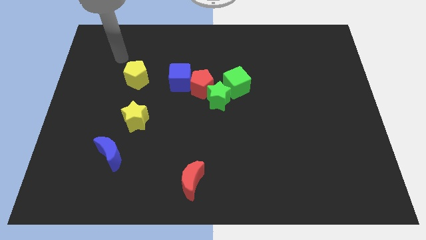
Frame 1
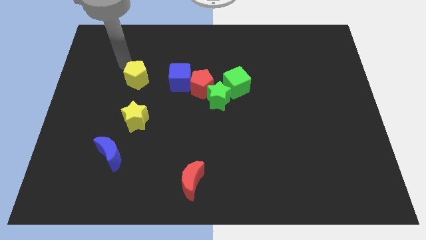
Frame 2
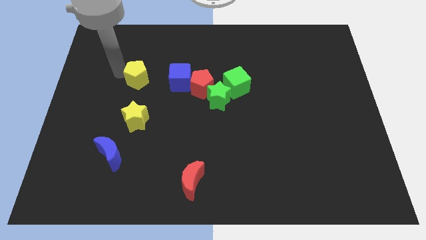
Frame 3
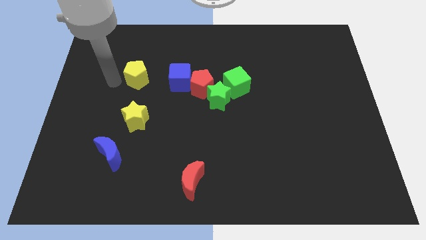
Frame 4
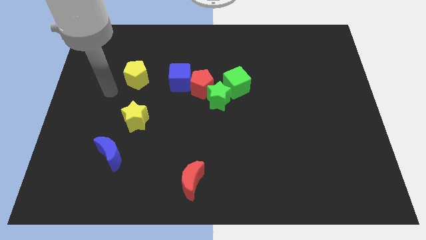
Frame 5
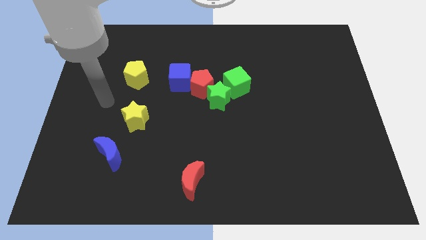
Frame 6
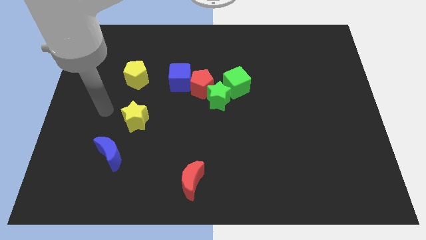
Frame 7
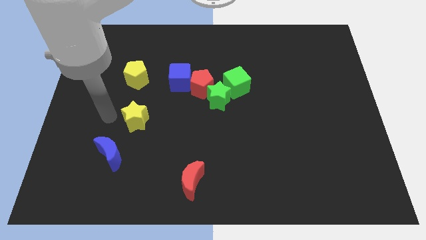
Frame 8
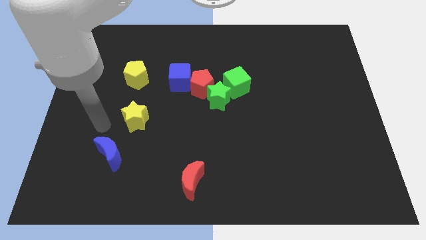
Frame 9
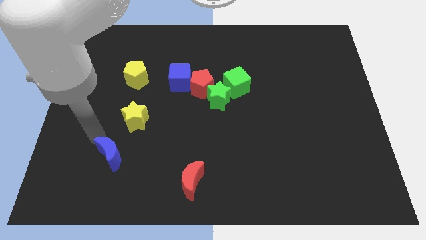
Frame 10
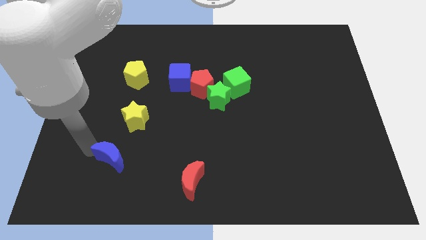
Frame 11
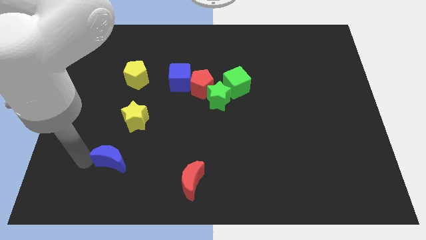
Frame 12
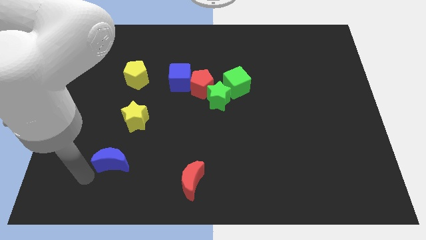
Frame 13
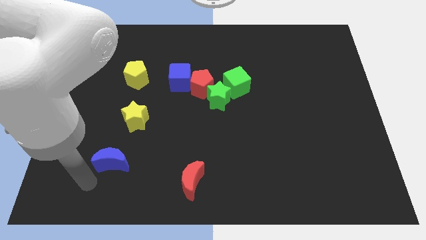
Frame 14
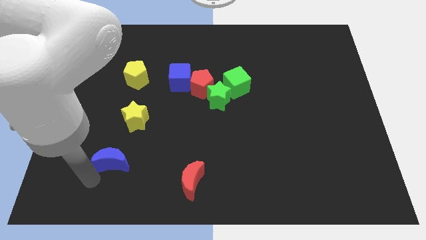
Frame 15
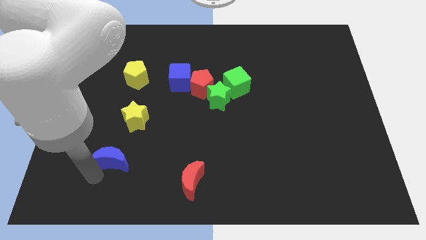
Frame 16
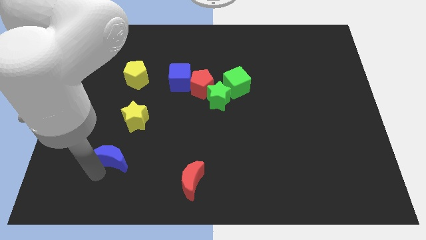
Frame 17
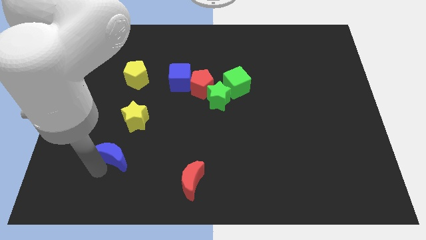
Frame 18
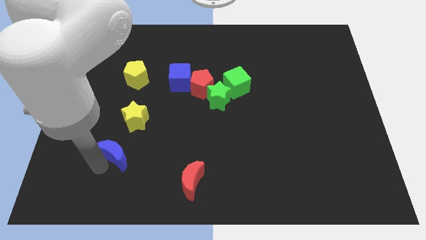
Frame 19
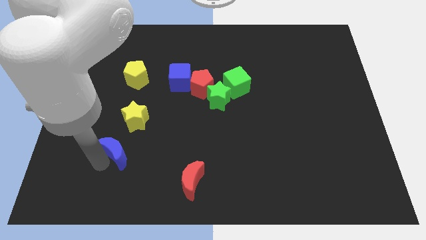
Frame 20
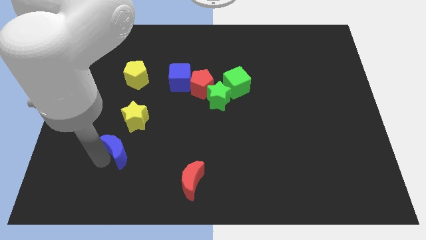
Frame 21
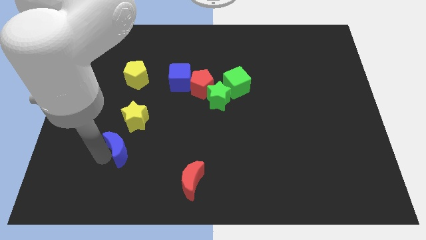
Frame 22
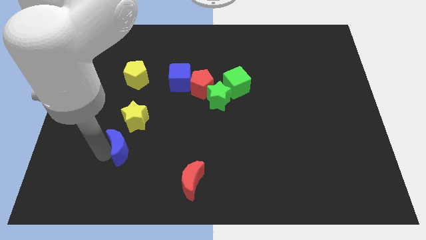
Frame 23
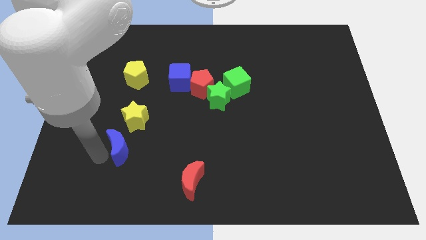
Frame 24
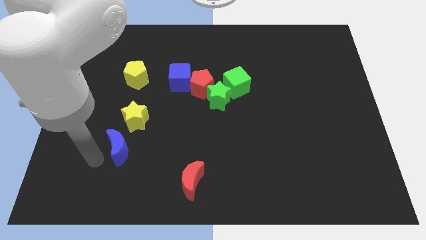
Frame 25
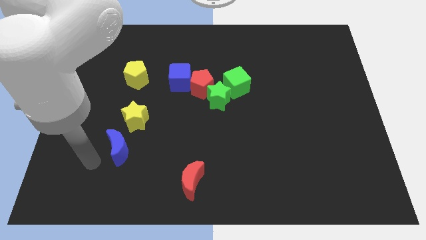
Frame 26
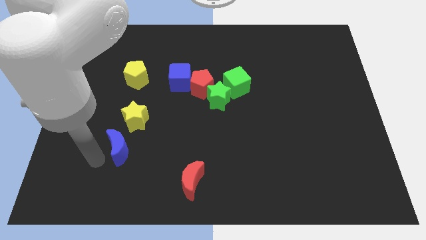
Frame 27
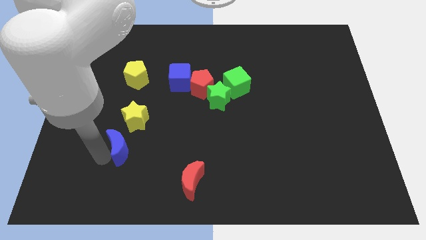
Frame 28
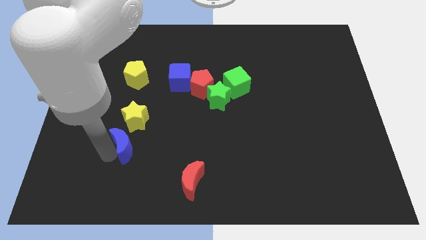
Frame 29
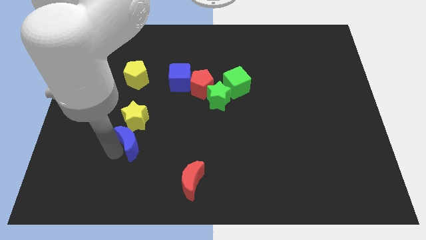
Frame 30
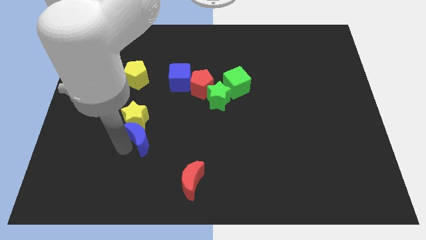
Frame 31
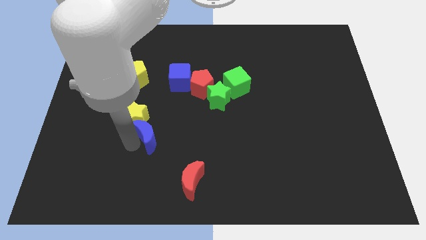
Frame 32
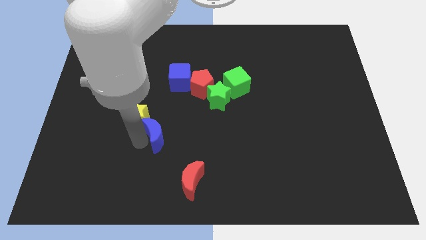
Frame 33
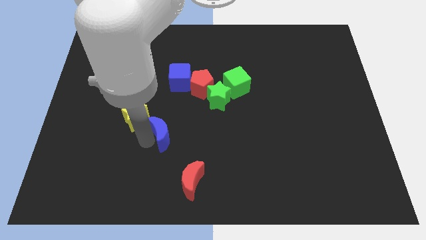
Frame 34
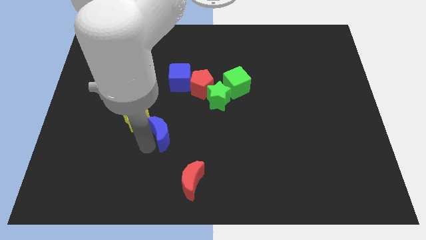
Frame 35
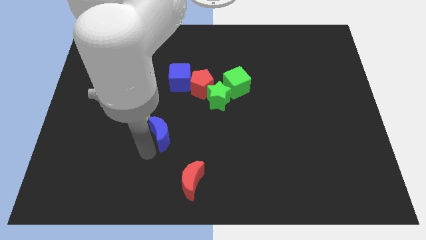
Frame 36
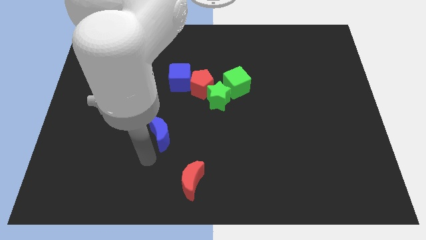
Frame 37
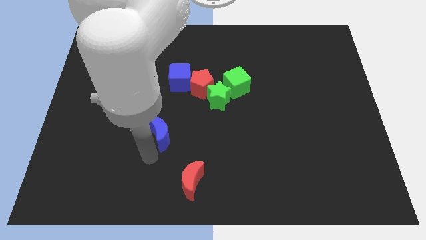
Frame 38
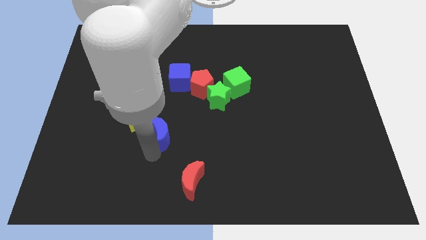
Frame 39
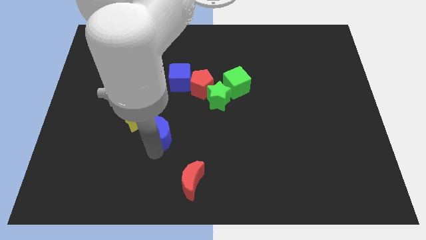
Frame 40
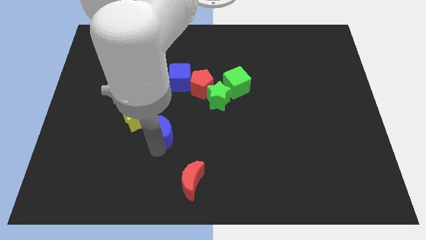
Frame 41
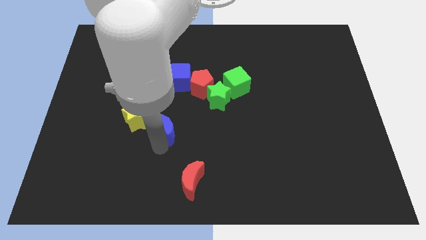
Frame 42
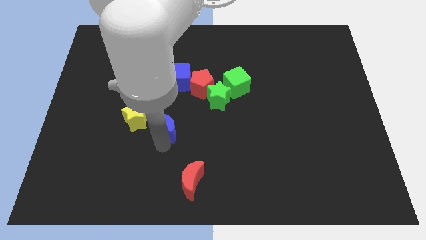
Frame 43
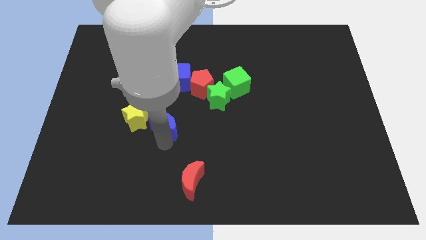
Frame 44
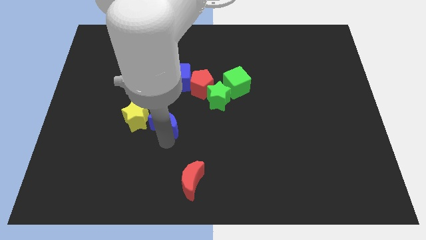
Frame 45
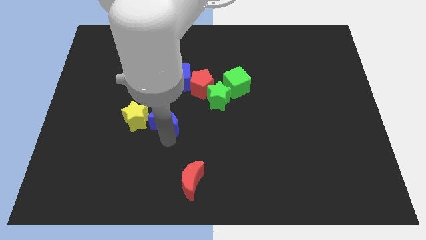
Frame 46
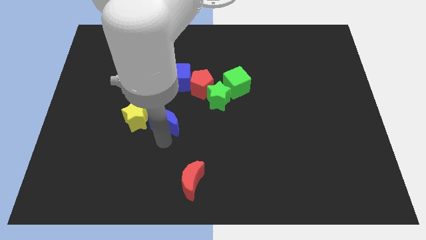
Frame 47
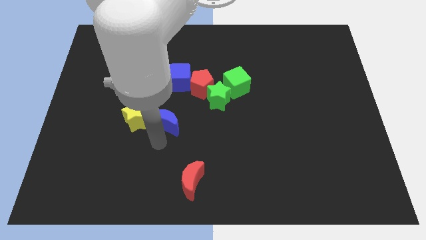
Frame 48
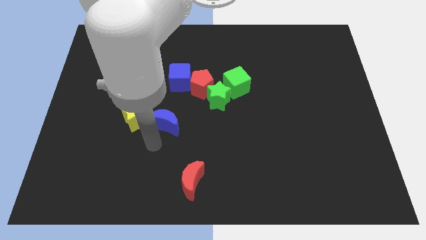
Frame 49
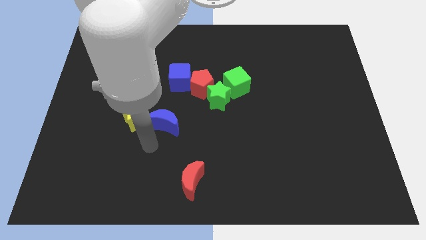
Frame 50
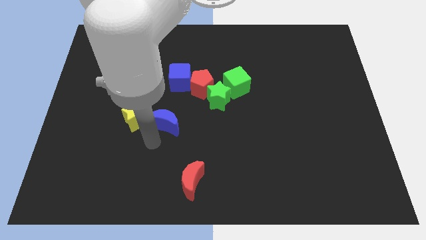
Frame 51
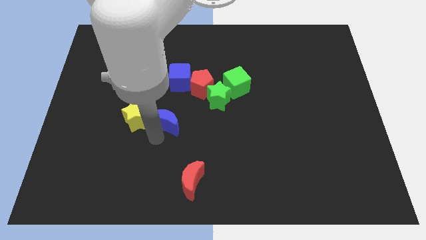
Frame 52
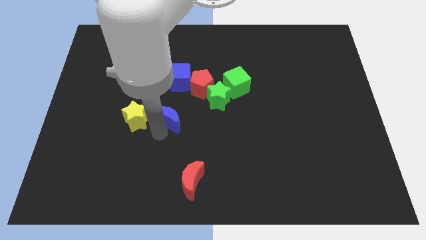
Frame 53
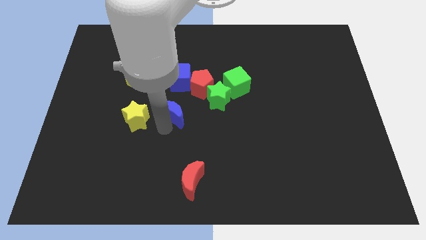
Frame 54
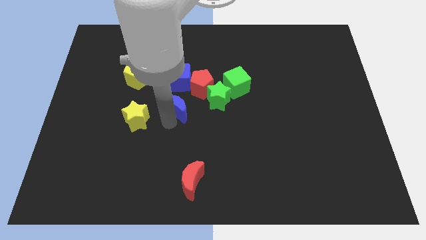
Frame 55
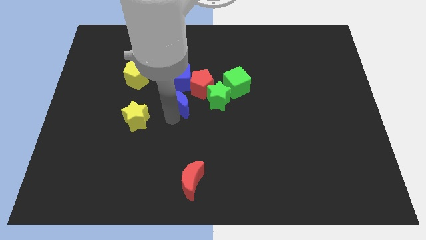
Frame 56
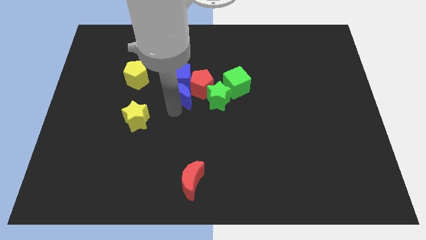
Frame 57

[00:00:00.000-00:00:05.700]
push the blue moon next to the red pentagon

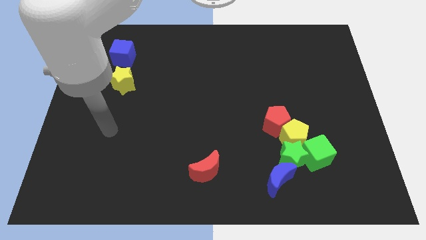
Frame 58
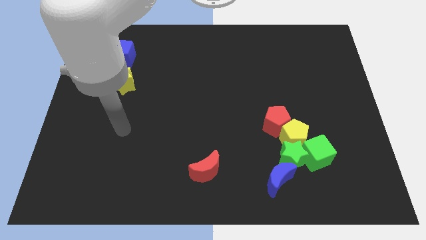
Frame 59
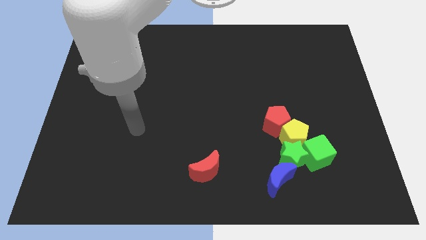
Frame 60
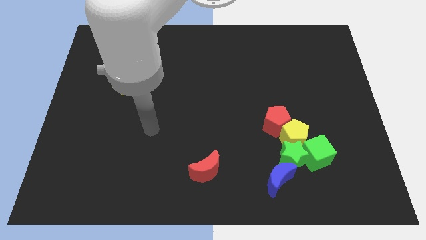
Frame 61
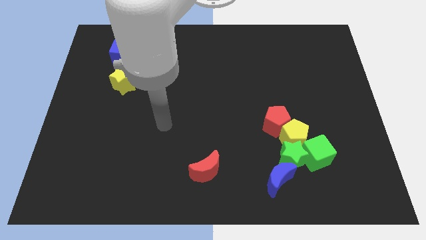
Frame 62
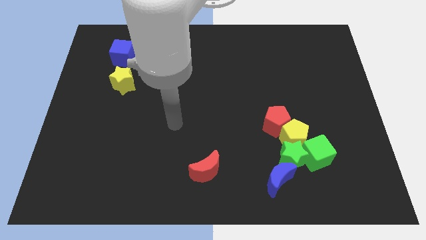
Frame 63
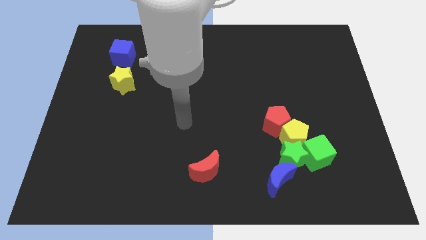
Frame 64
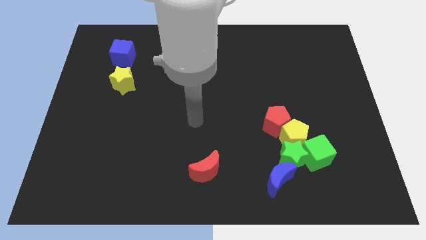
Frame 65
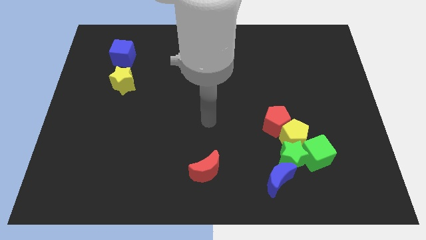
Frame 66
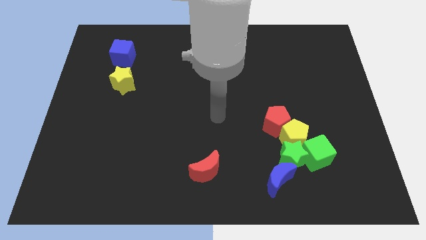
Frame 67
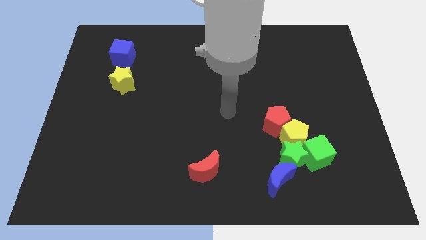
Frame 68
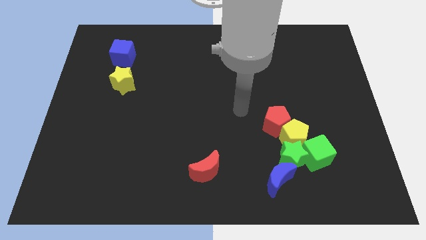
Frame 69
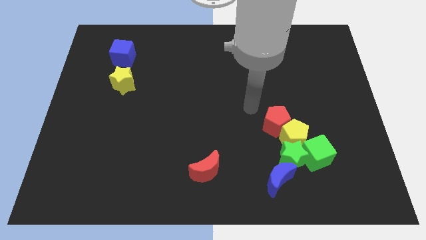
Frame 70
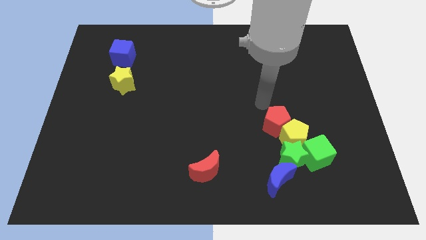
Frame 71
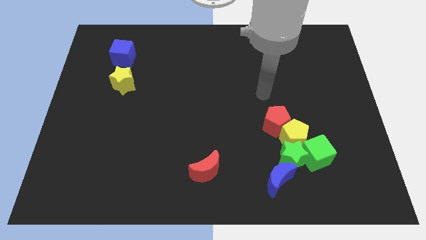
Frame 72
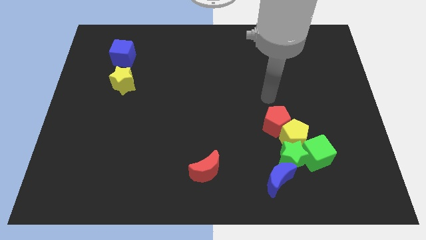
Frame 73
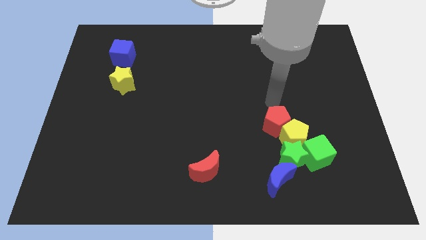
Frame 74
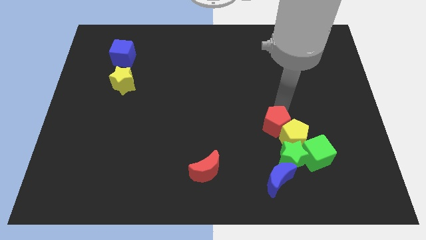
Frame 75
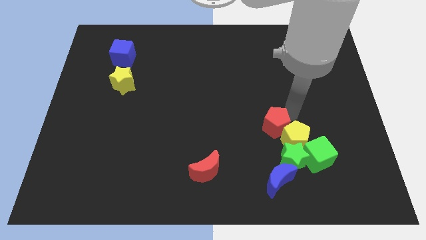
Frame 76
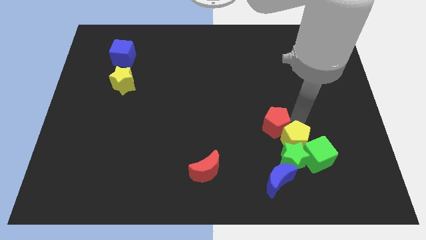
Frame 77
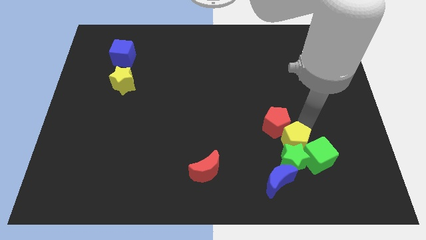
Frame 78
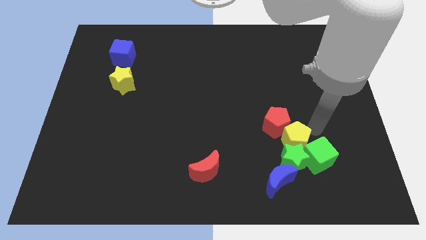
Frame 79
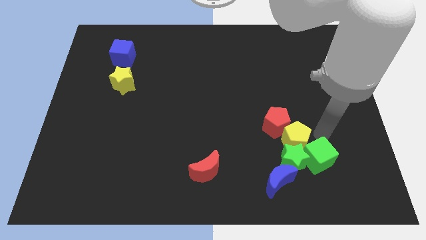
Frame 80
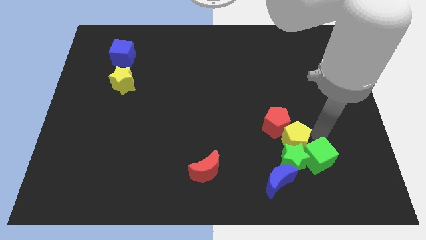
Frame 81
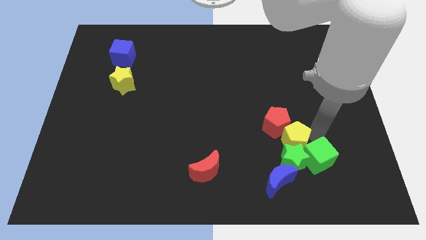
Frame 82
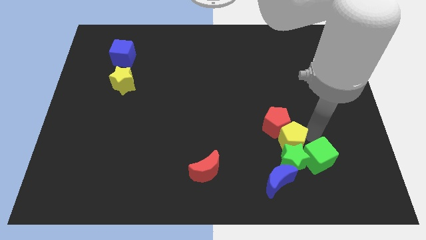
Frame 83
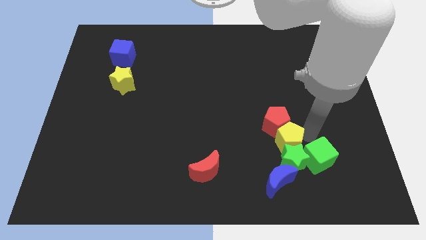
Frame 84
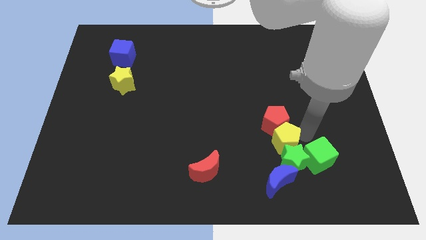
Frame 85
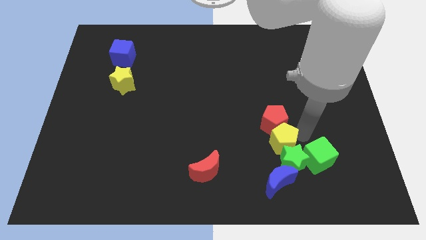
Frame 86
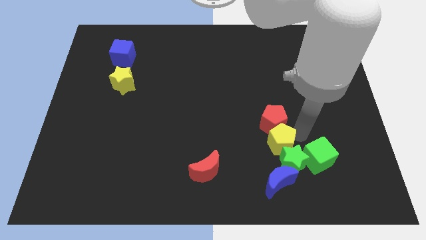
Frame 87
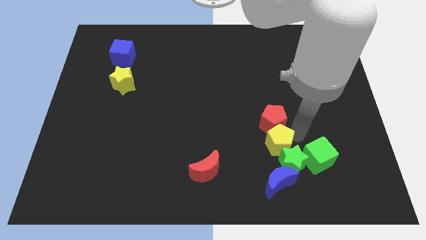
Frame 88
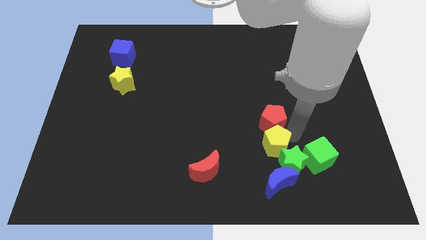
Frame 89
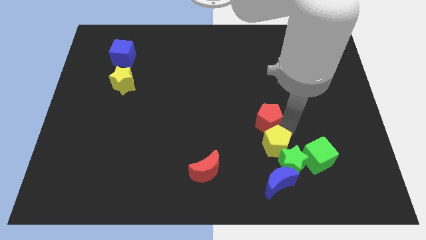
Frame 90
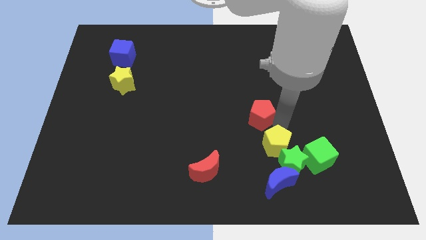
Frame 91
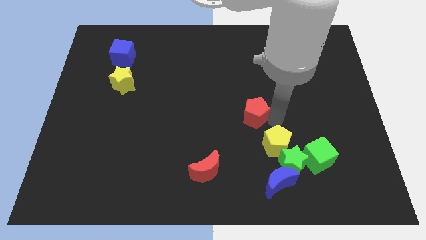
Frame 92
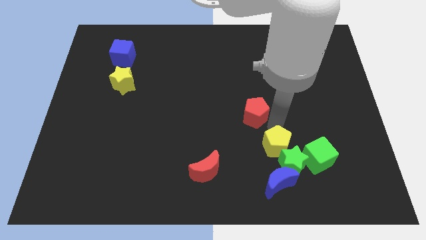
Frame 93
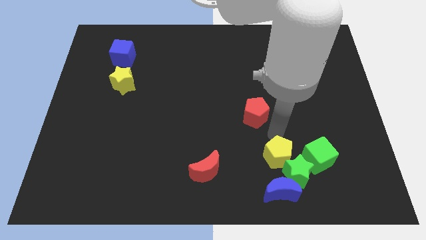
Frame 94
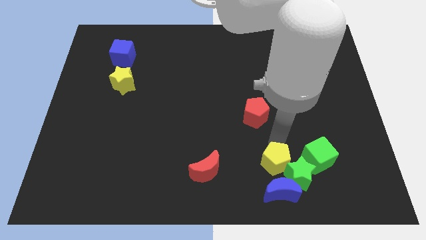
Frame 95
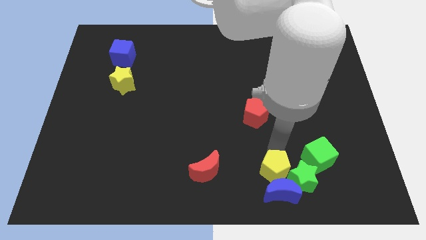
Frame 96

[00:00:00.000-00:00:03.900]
push the yellow pentagon next to the blue moon
